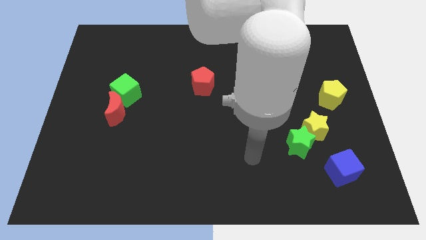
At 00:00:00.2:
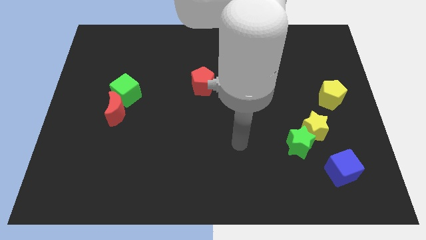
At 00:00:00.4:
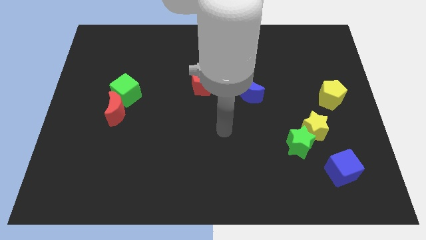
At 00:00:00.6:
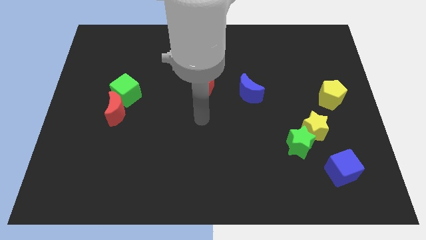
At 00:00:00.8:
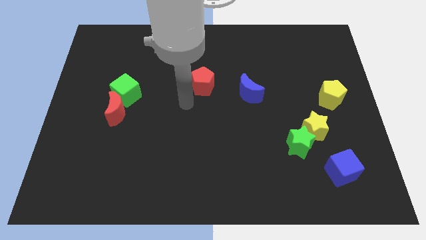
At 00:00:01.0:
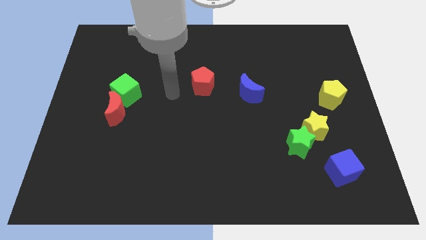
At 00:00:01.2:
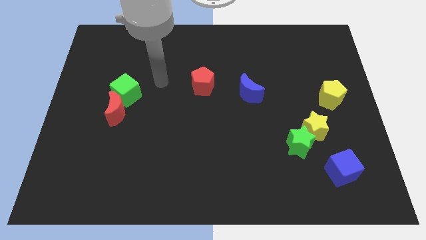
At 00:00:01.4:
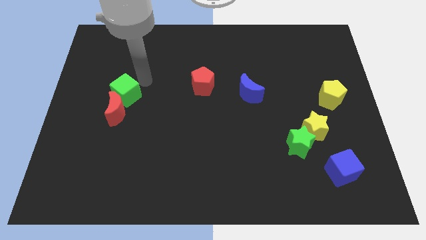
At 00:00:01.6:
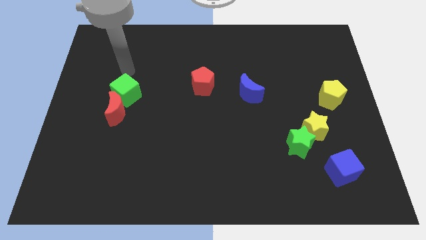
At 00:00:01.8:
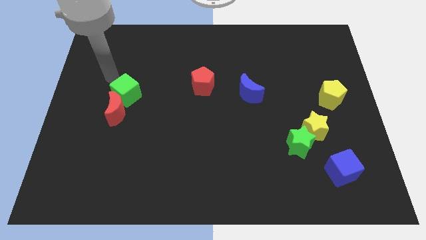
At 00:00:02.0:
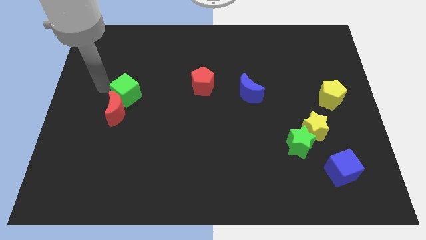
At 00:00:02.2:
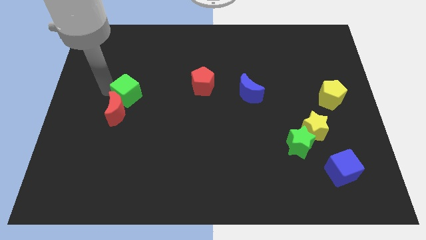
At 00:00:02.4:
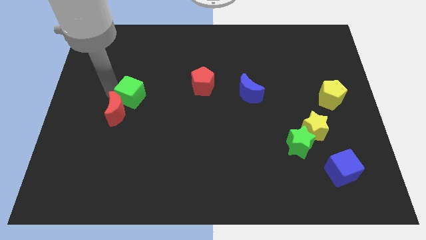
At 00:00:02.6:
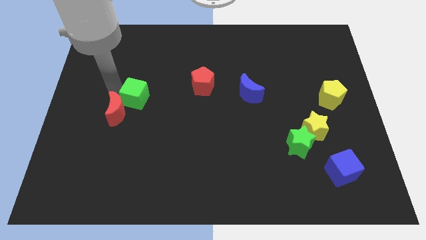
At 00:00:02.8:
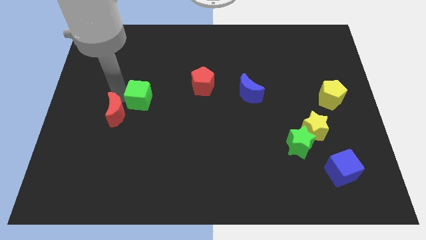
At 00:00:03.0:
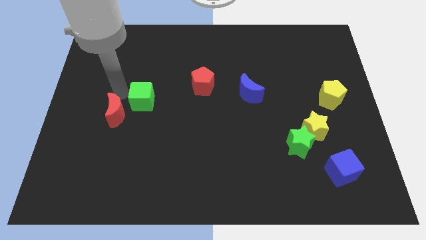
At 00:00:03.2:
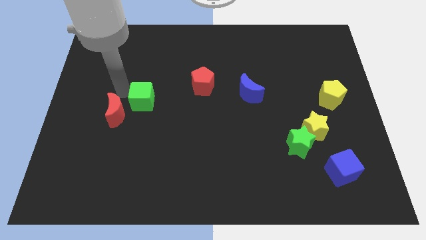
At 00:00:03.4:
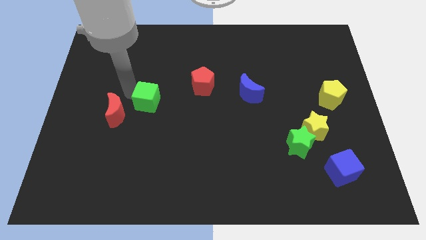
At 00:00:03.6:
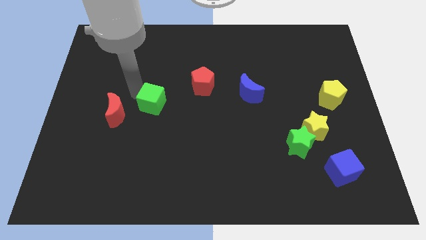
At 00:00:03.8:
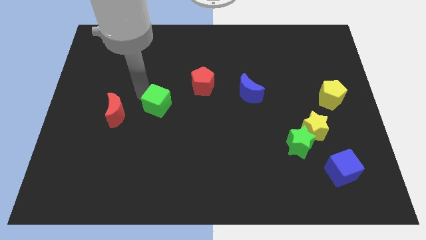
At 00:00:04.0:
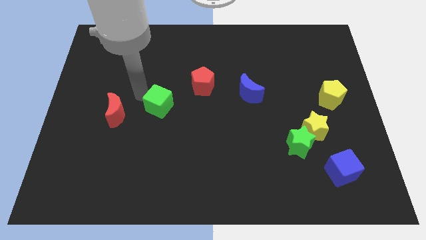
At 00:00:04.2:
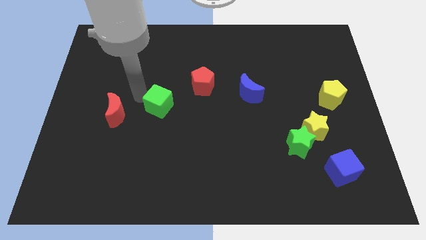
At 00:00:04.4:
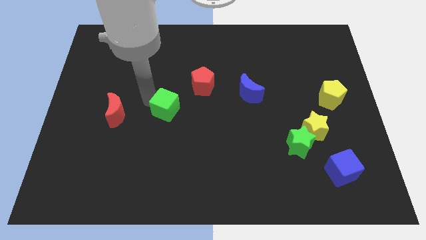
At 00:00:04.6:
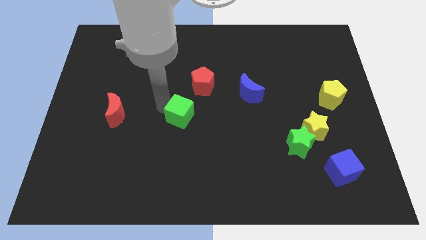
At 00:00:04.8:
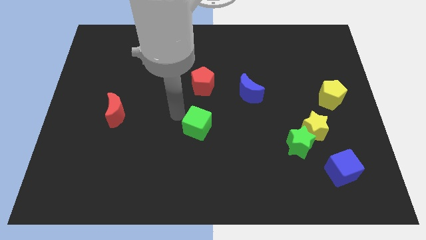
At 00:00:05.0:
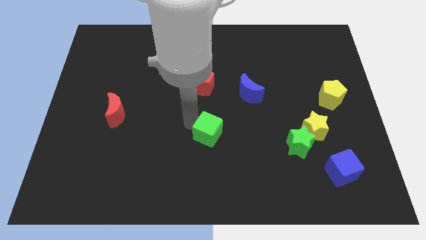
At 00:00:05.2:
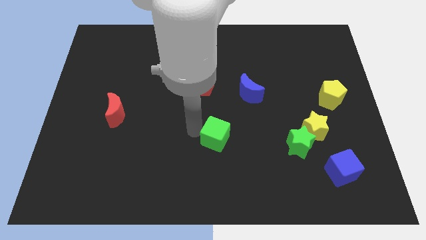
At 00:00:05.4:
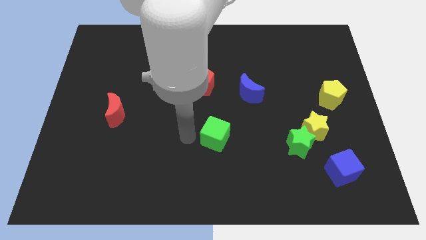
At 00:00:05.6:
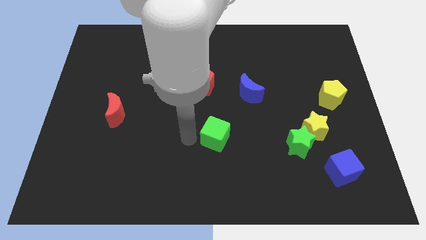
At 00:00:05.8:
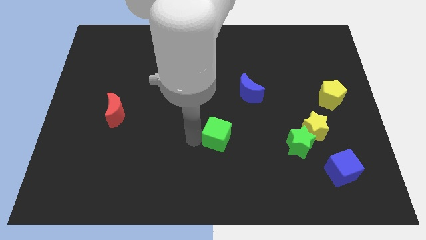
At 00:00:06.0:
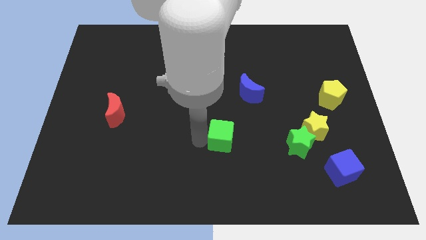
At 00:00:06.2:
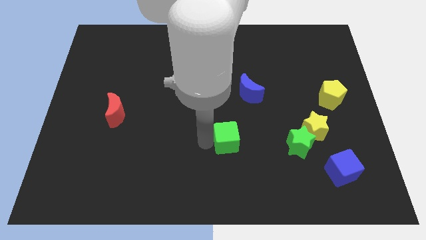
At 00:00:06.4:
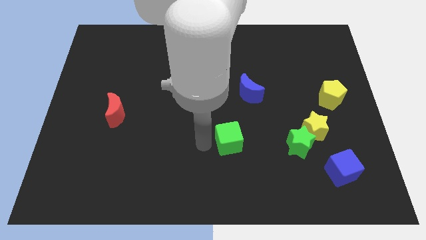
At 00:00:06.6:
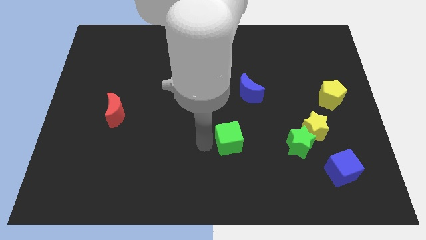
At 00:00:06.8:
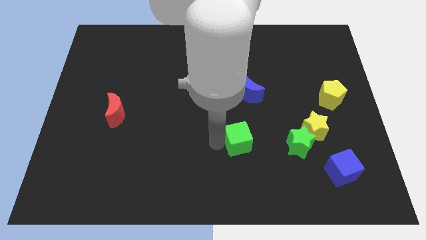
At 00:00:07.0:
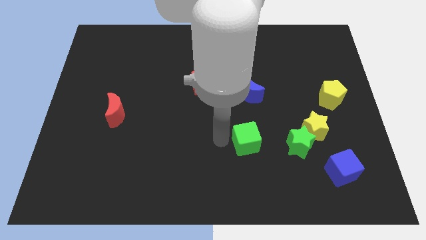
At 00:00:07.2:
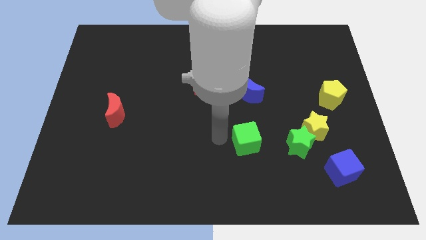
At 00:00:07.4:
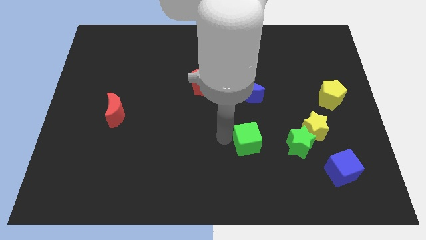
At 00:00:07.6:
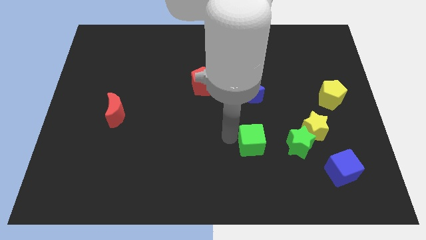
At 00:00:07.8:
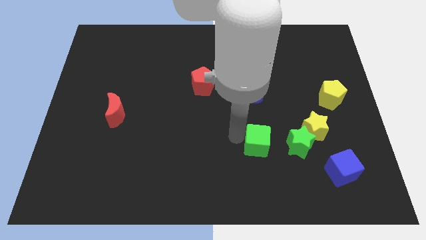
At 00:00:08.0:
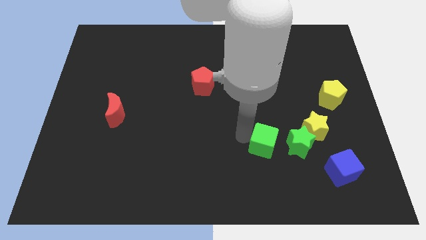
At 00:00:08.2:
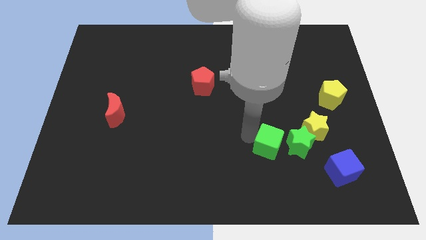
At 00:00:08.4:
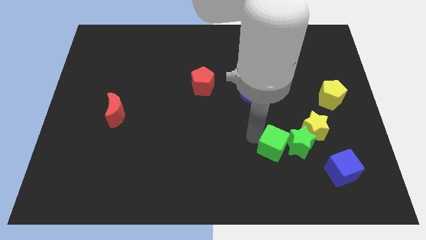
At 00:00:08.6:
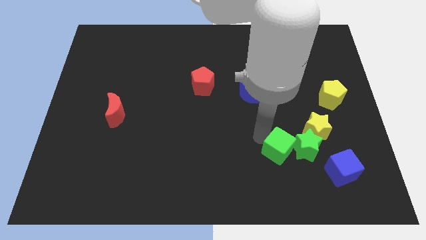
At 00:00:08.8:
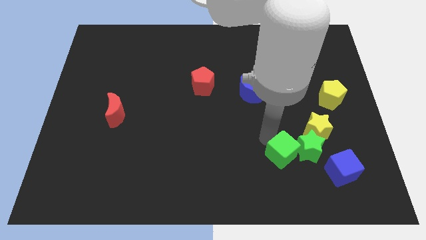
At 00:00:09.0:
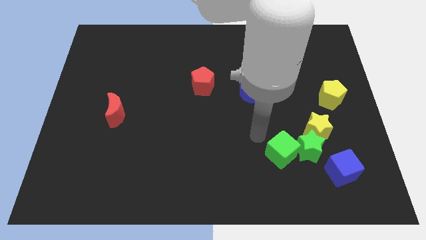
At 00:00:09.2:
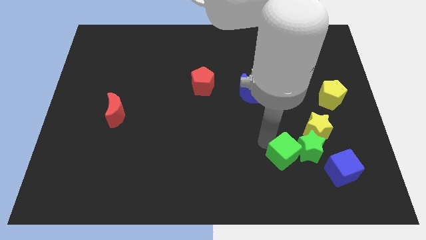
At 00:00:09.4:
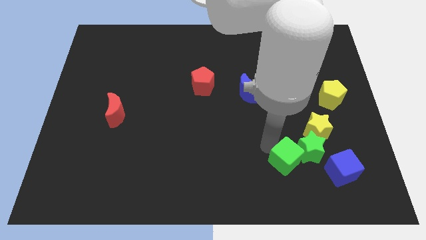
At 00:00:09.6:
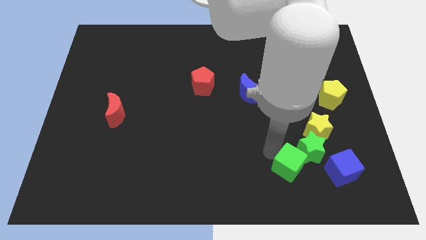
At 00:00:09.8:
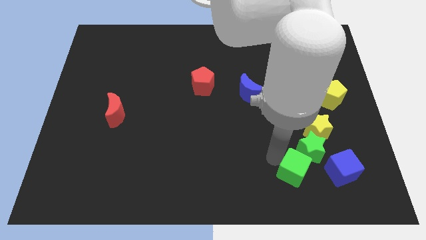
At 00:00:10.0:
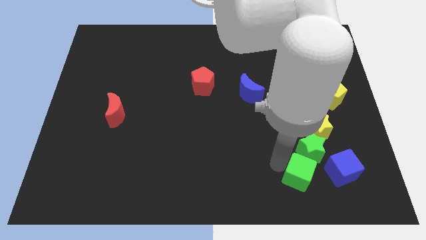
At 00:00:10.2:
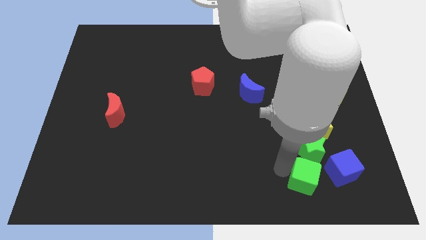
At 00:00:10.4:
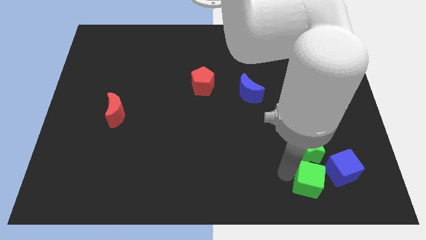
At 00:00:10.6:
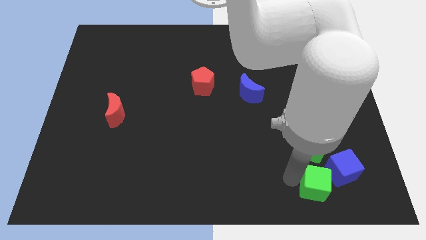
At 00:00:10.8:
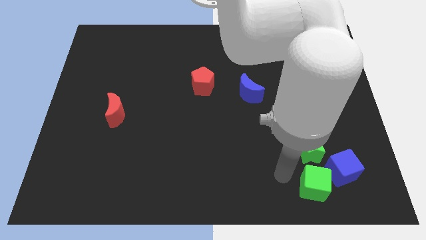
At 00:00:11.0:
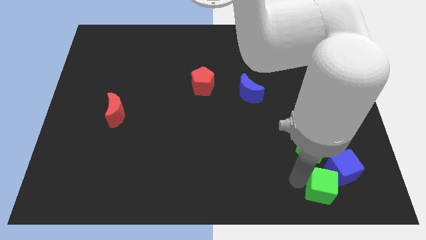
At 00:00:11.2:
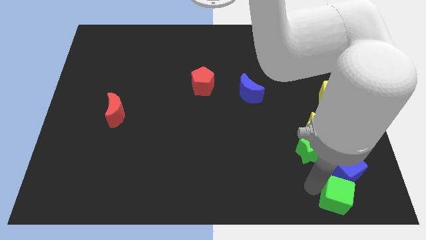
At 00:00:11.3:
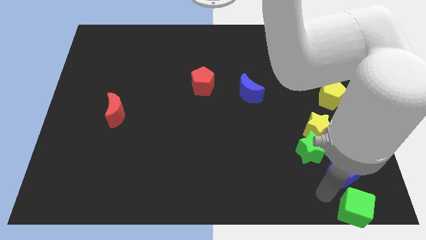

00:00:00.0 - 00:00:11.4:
move the green cube to the bottom right of the board
